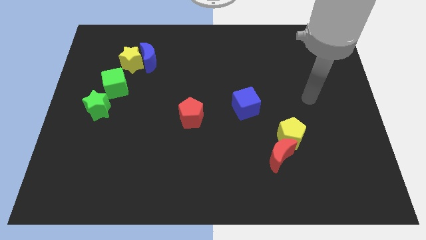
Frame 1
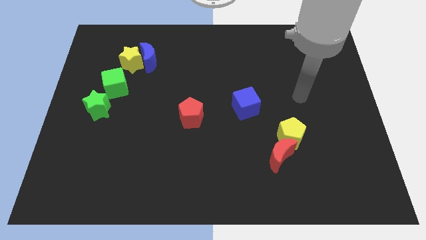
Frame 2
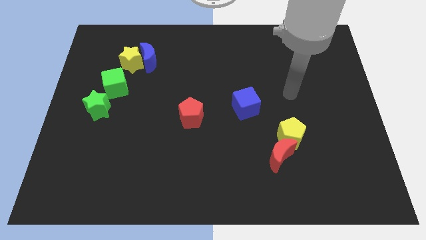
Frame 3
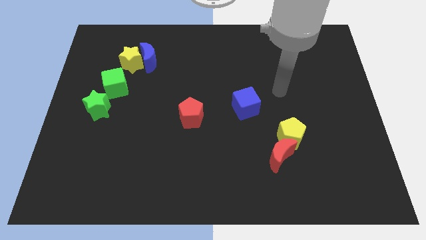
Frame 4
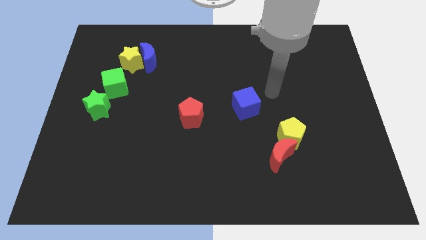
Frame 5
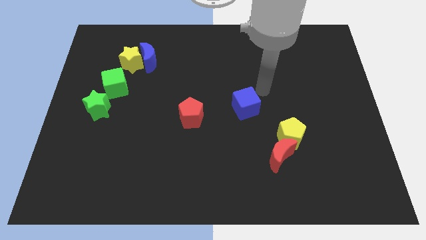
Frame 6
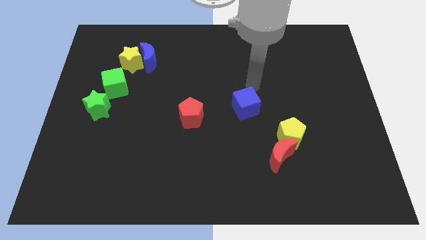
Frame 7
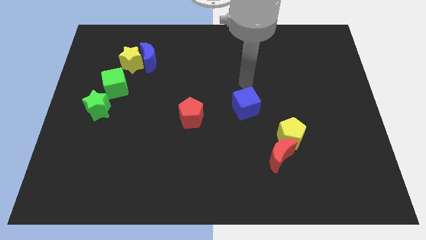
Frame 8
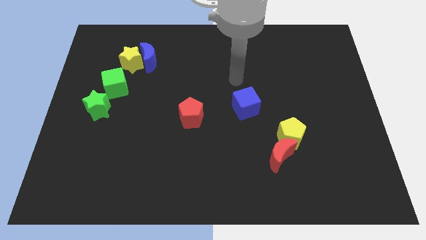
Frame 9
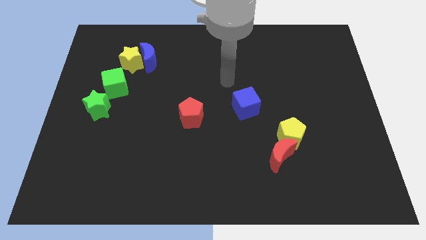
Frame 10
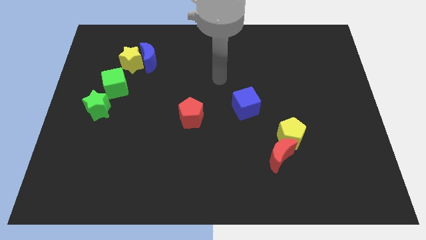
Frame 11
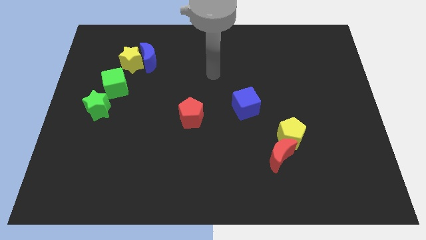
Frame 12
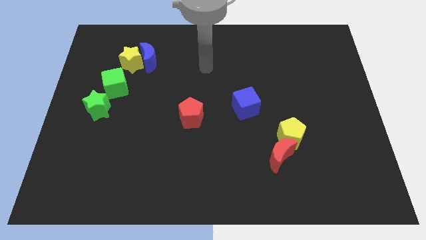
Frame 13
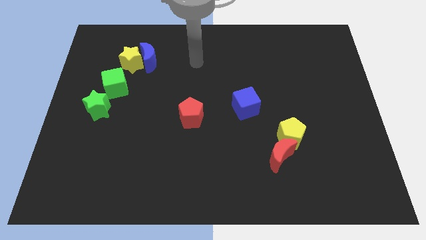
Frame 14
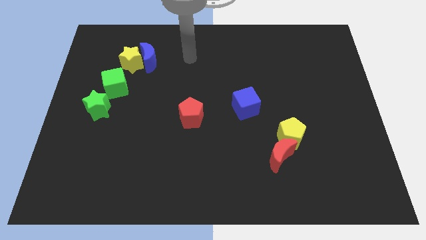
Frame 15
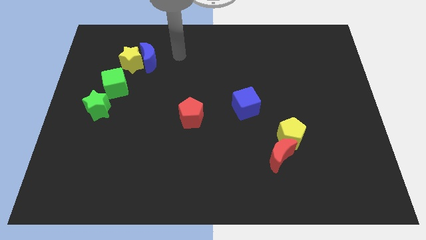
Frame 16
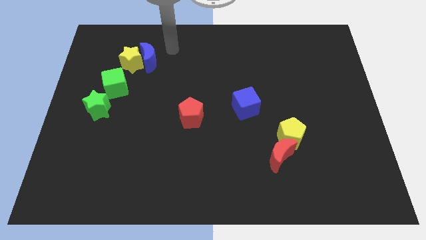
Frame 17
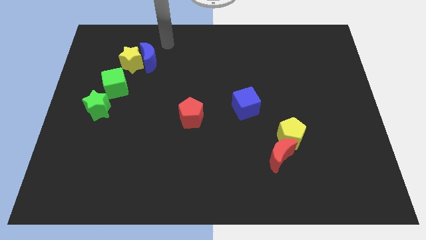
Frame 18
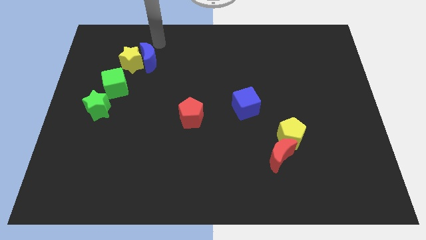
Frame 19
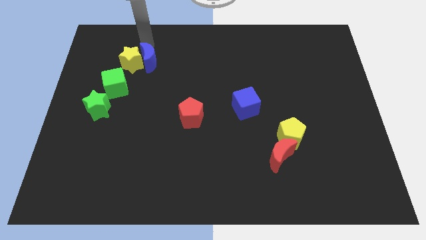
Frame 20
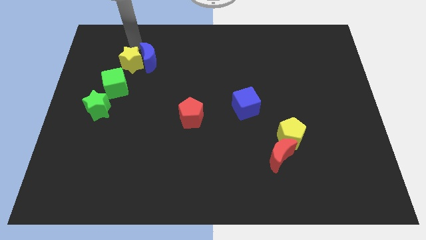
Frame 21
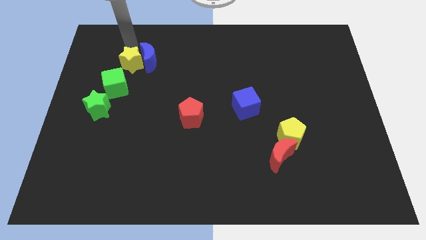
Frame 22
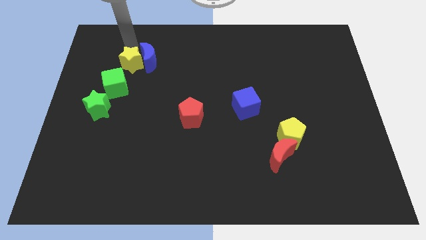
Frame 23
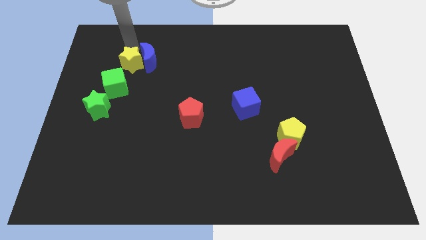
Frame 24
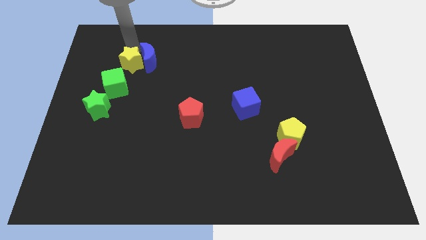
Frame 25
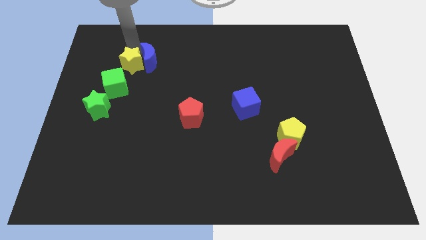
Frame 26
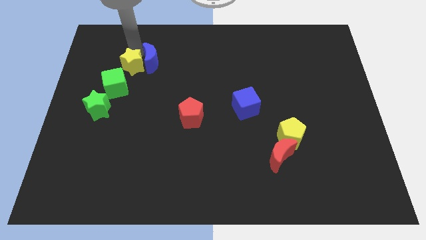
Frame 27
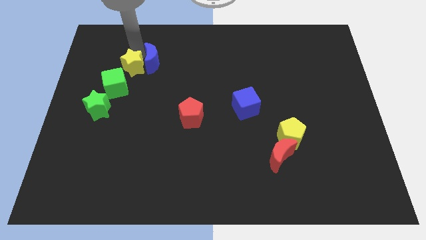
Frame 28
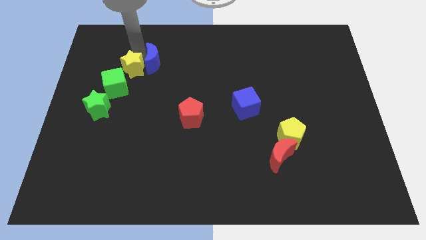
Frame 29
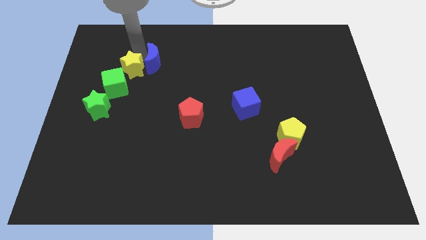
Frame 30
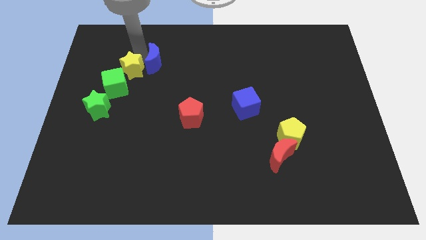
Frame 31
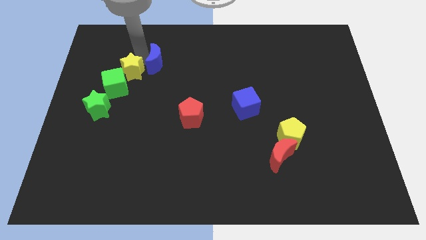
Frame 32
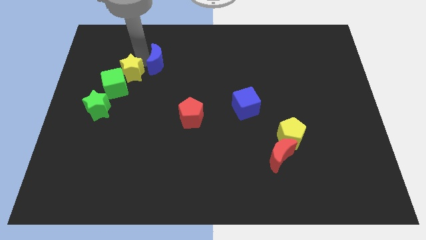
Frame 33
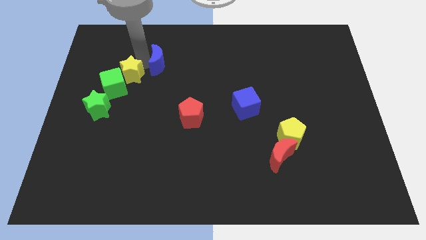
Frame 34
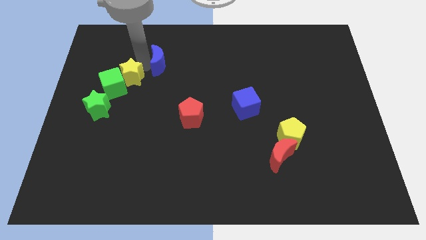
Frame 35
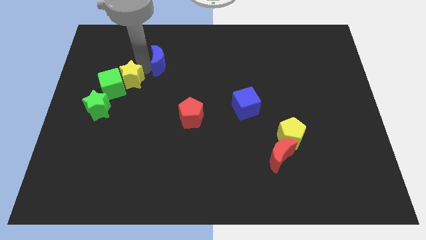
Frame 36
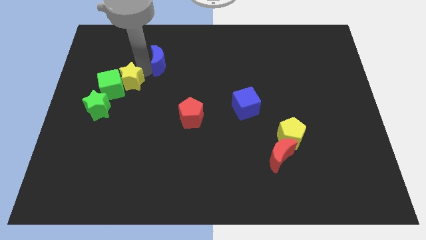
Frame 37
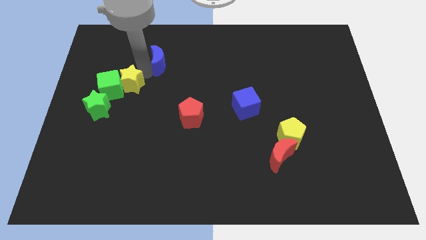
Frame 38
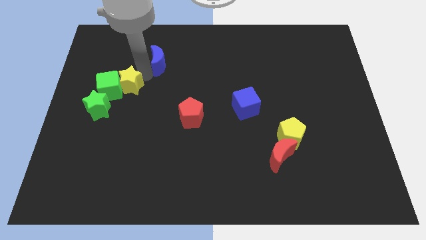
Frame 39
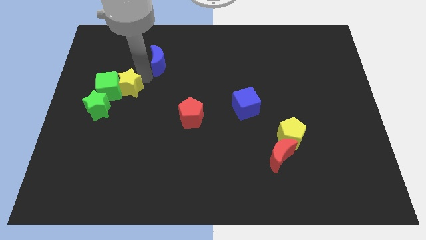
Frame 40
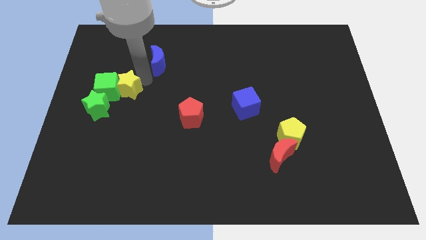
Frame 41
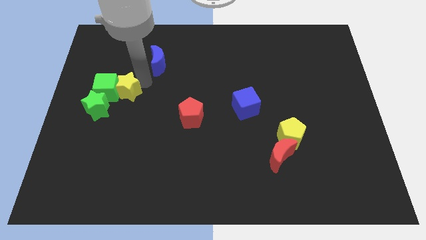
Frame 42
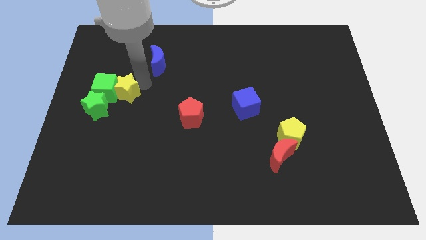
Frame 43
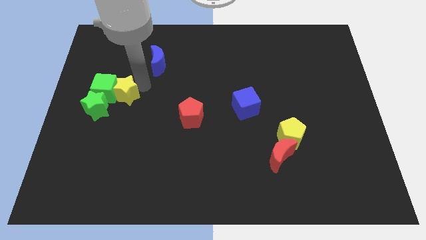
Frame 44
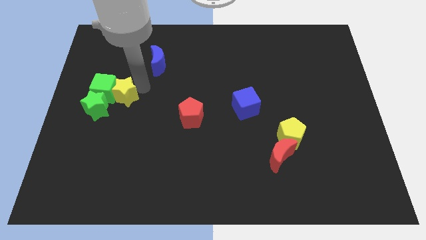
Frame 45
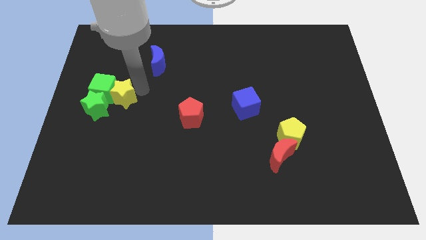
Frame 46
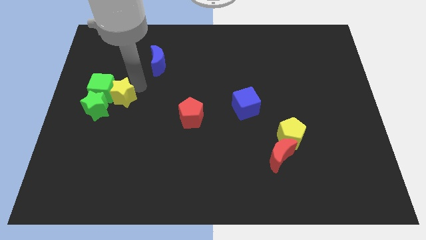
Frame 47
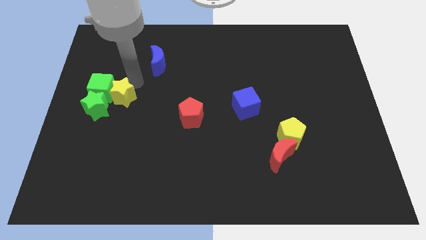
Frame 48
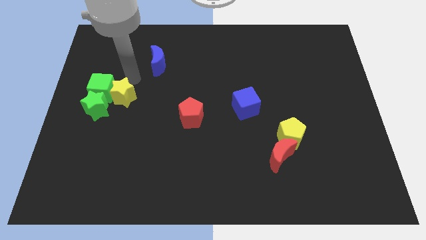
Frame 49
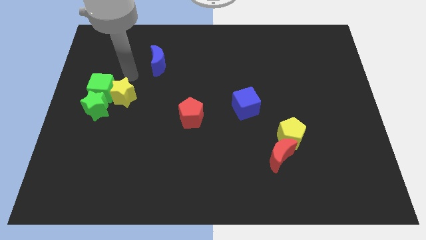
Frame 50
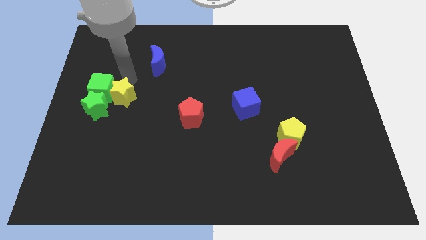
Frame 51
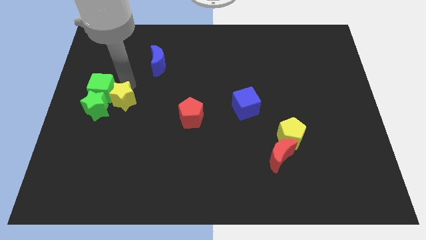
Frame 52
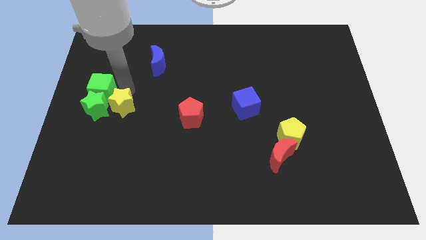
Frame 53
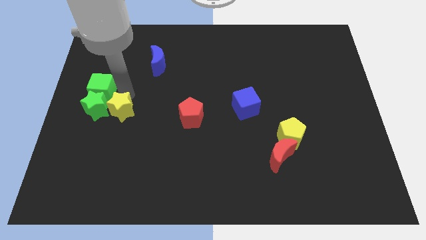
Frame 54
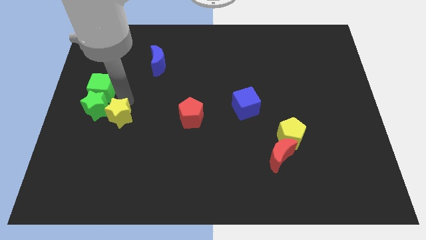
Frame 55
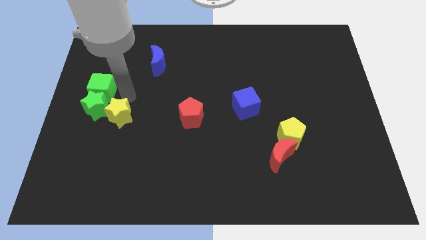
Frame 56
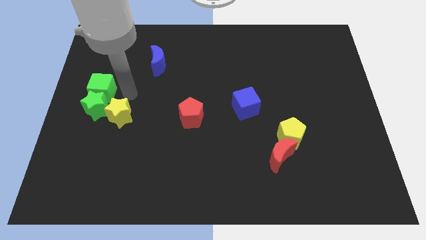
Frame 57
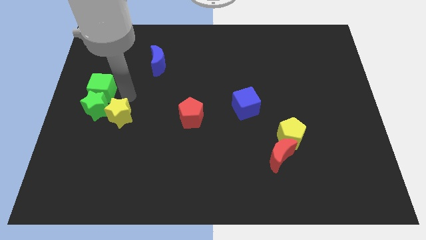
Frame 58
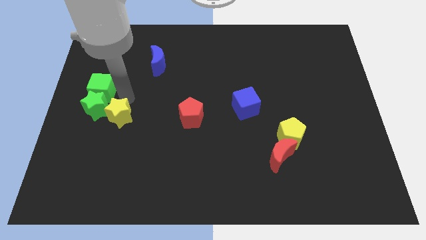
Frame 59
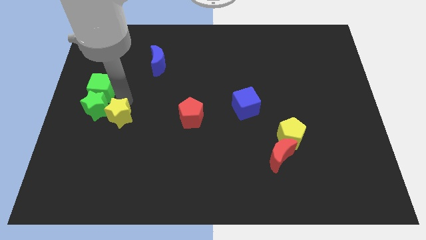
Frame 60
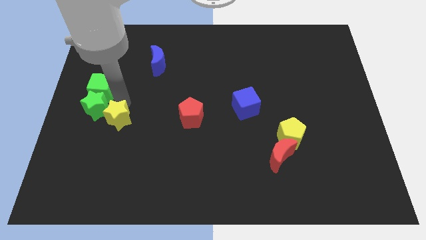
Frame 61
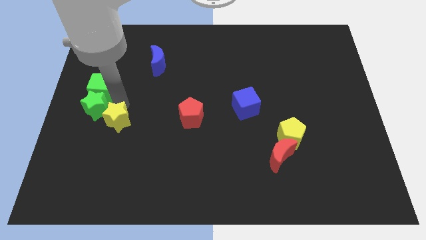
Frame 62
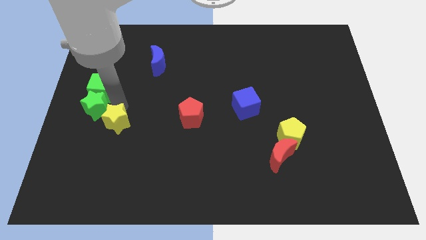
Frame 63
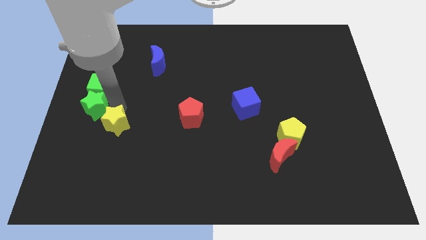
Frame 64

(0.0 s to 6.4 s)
move the yellow star down

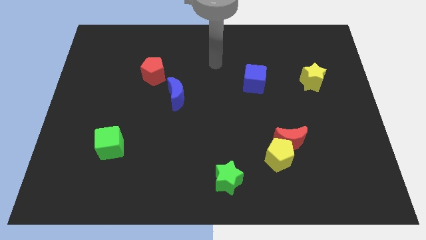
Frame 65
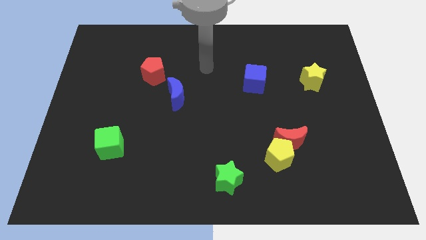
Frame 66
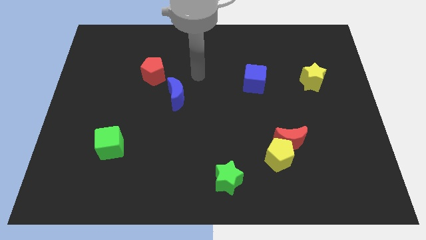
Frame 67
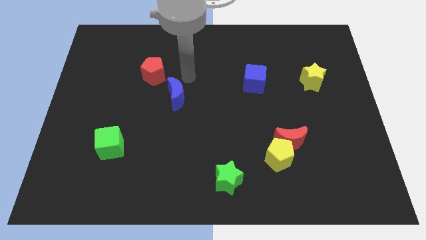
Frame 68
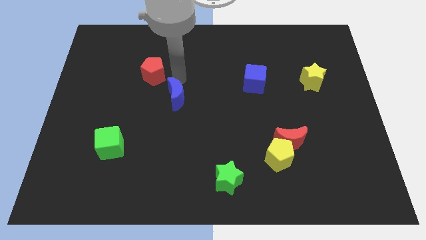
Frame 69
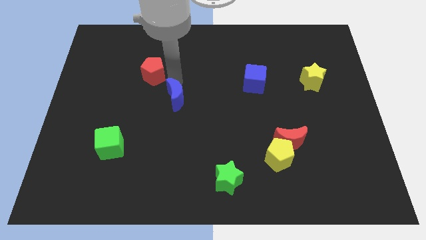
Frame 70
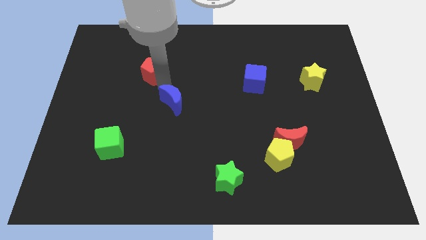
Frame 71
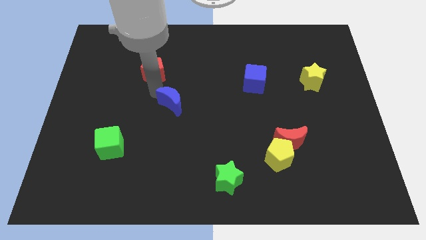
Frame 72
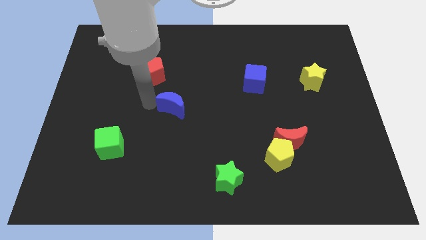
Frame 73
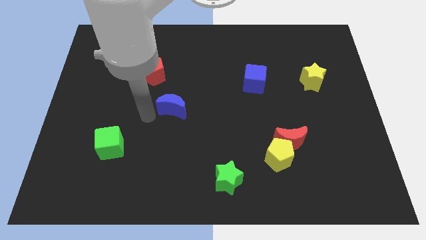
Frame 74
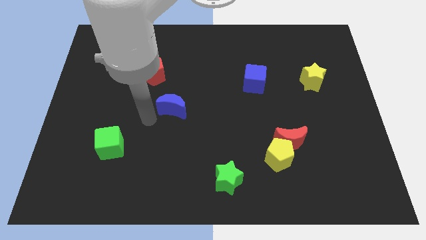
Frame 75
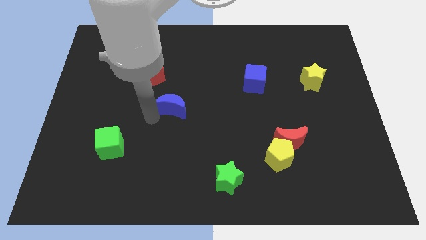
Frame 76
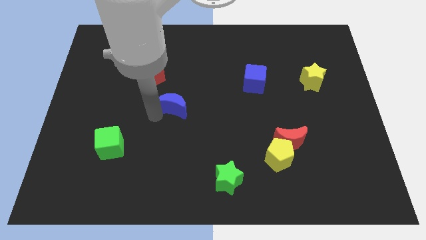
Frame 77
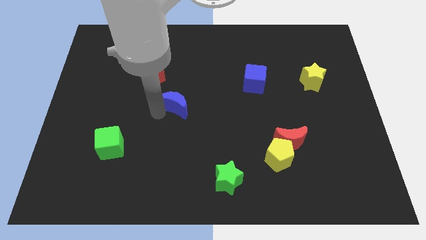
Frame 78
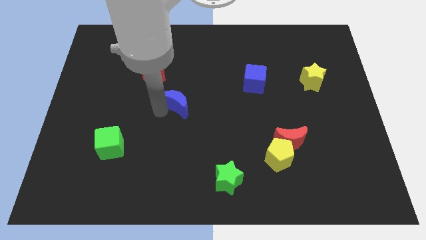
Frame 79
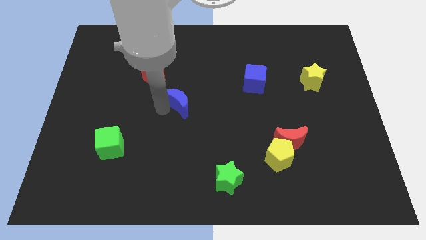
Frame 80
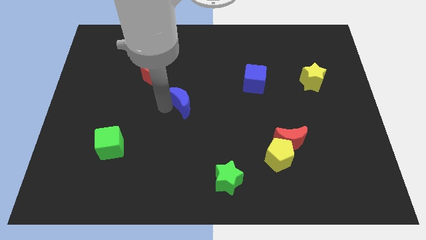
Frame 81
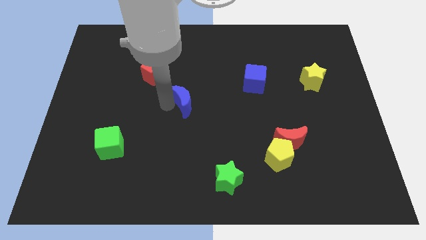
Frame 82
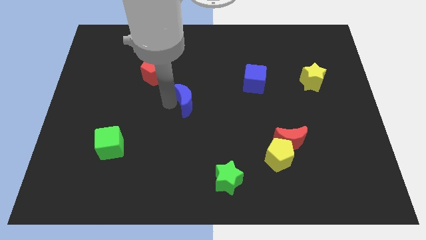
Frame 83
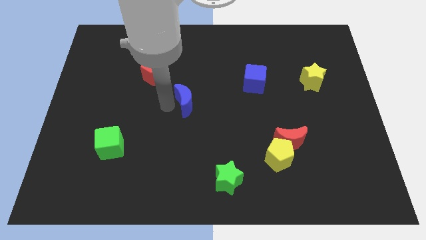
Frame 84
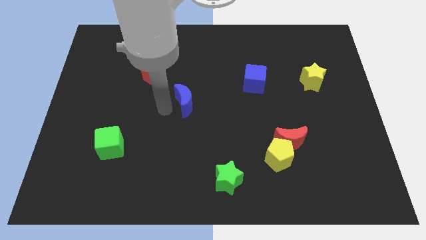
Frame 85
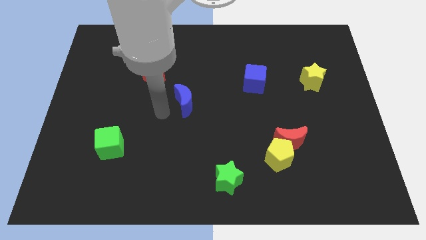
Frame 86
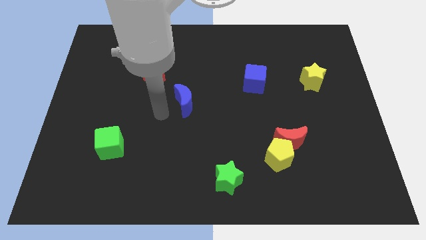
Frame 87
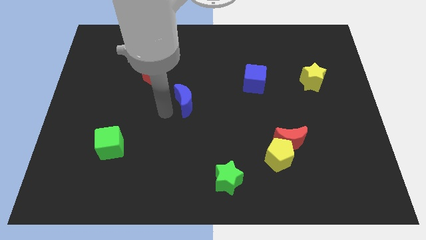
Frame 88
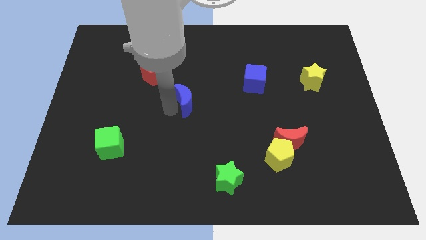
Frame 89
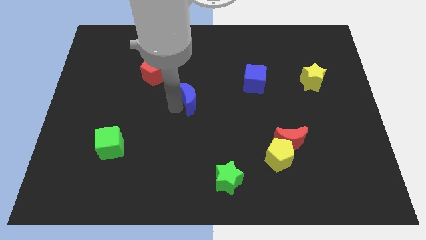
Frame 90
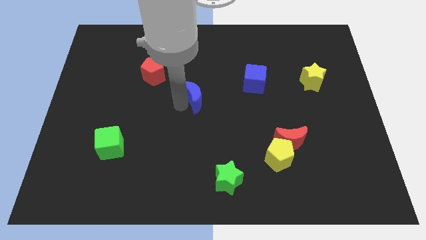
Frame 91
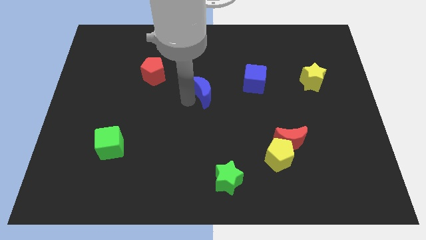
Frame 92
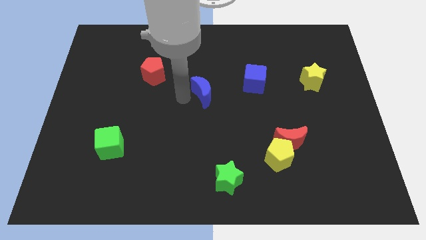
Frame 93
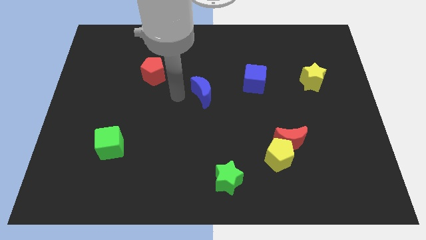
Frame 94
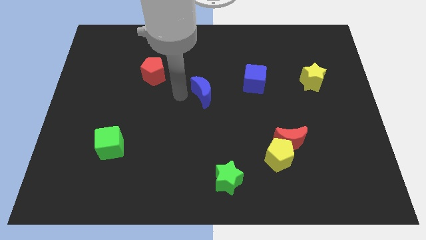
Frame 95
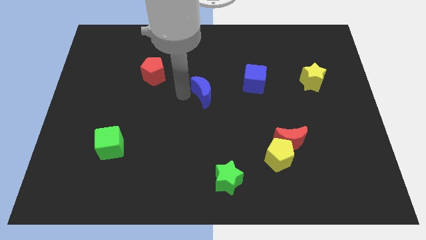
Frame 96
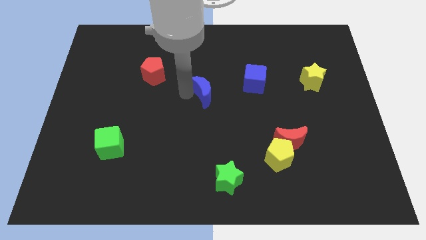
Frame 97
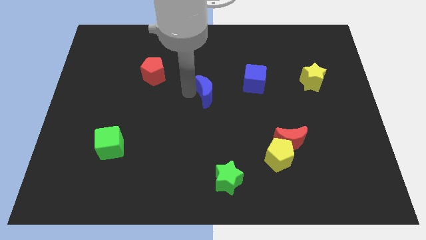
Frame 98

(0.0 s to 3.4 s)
slightly push the blue moon to the right
